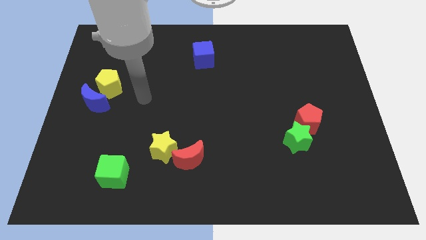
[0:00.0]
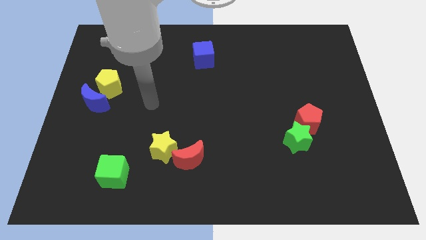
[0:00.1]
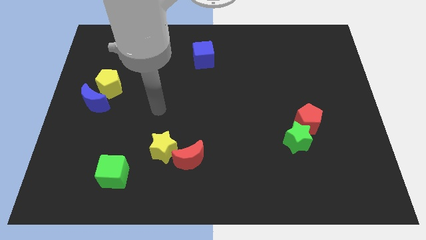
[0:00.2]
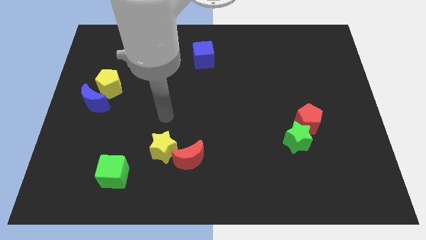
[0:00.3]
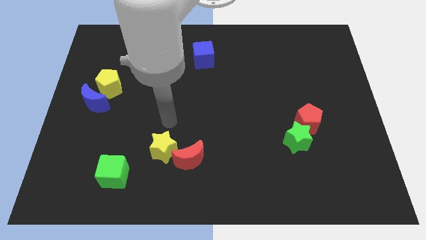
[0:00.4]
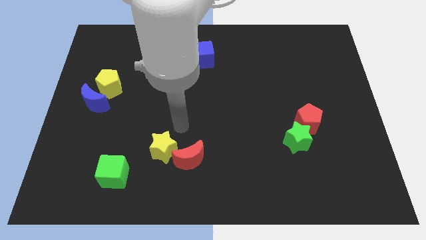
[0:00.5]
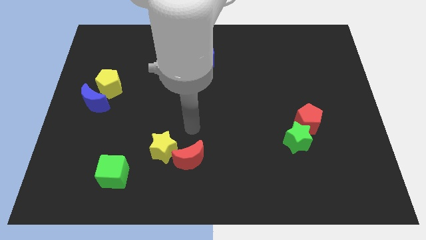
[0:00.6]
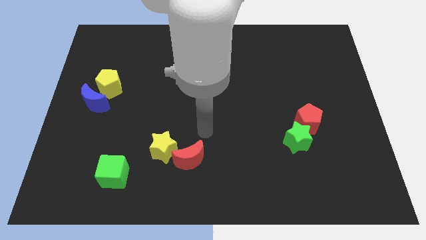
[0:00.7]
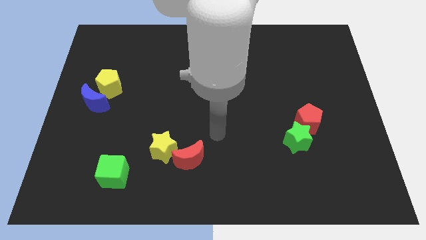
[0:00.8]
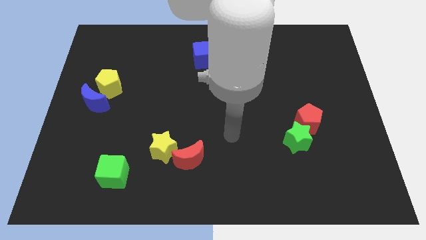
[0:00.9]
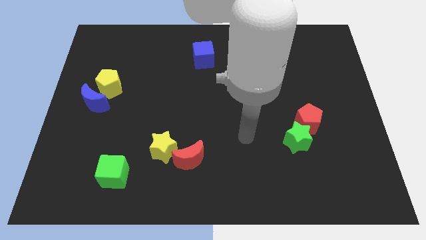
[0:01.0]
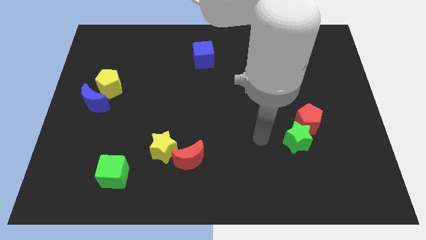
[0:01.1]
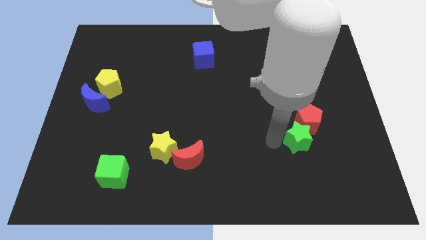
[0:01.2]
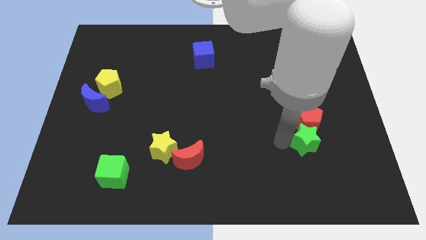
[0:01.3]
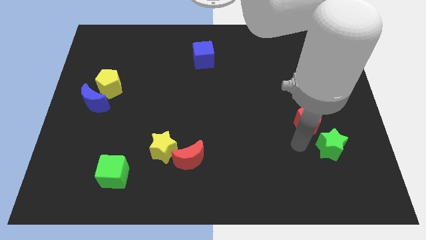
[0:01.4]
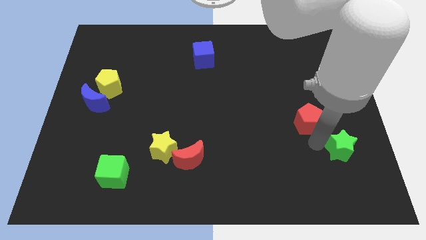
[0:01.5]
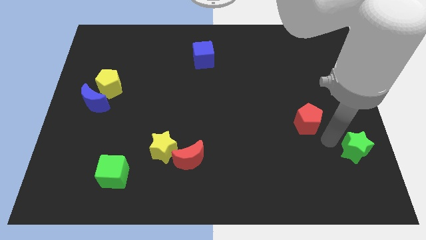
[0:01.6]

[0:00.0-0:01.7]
separate the red pentagon from the green star

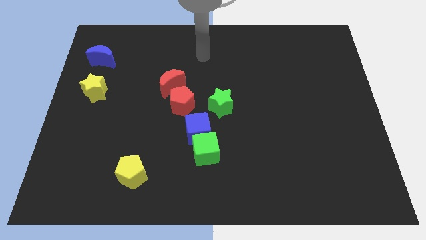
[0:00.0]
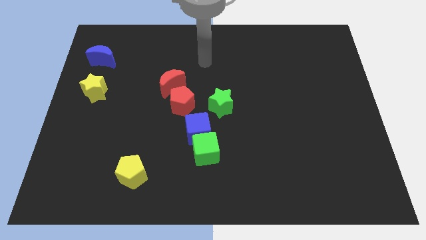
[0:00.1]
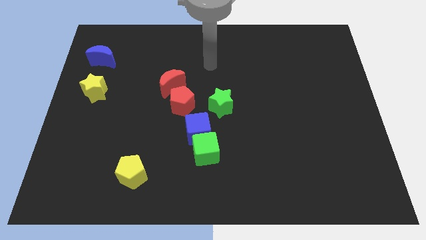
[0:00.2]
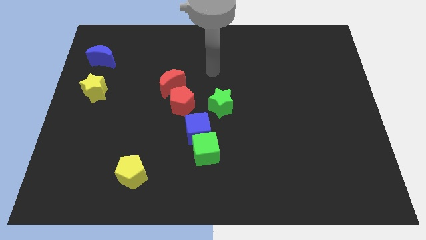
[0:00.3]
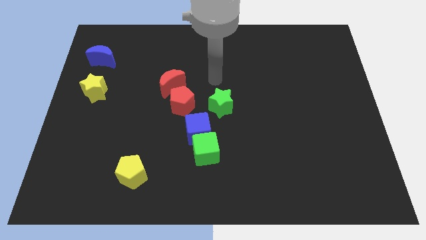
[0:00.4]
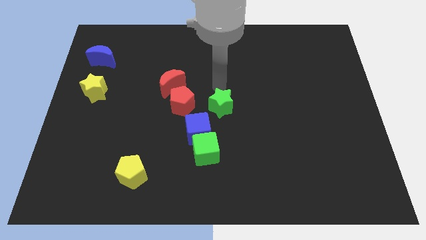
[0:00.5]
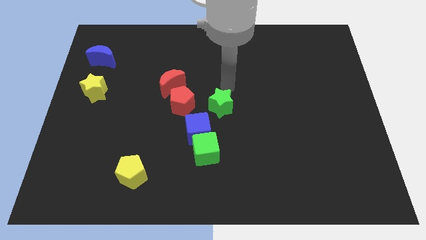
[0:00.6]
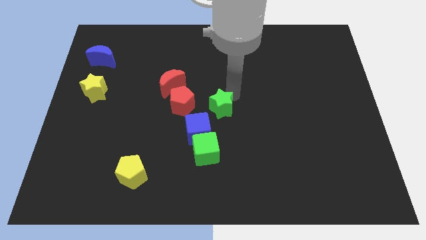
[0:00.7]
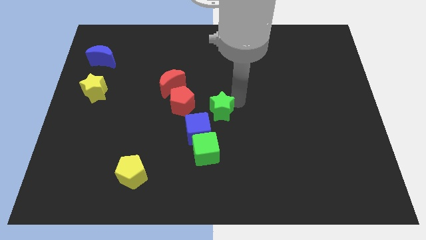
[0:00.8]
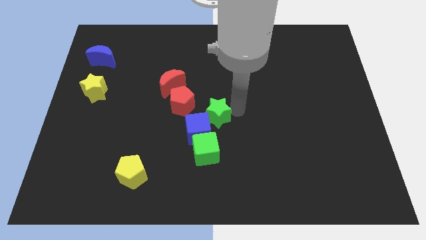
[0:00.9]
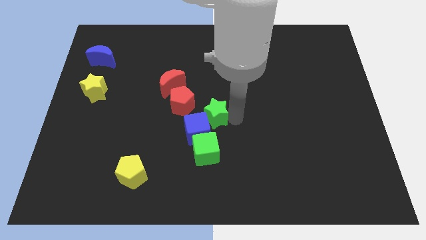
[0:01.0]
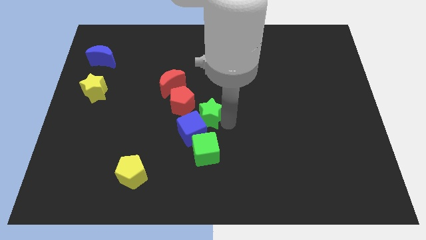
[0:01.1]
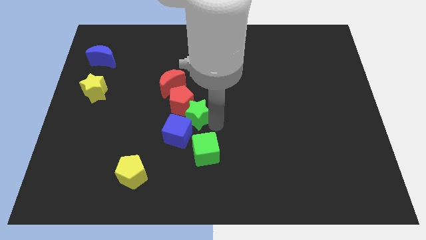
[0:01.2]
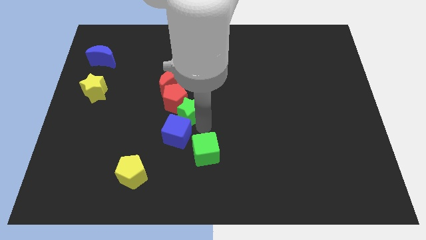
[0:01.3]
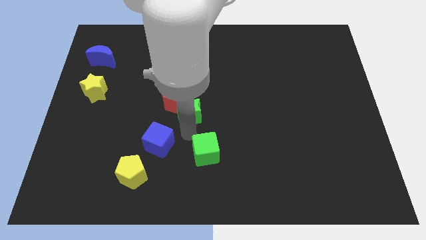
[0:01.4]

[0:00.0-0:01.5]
separate the green cube from the blue cube

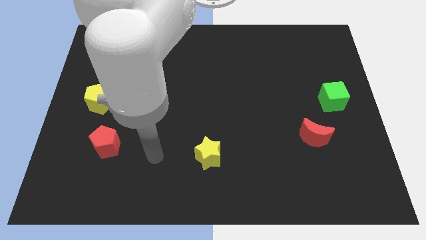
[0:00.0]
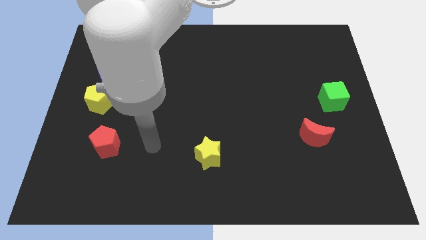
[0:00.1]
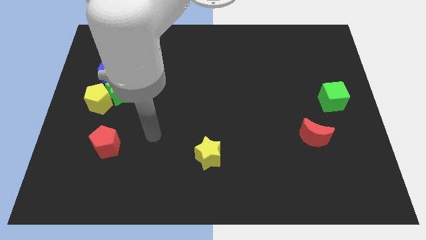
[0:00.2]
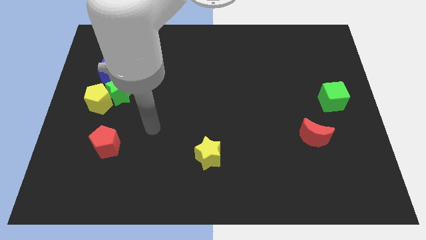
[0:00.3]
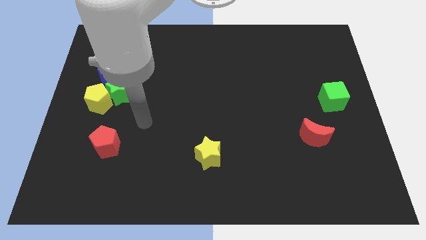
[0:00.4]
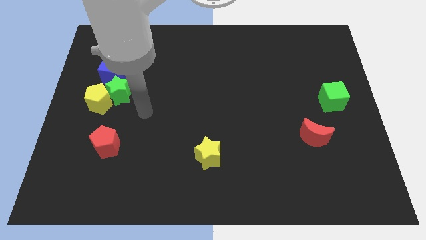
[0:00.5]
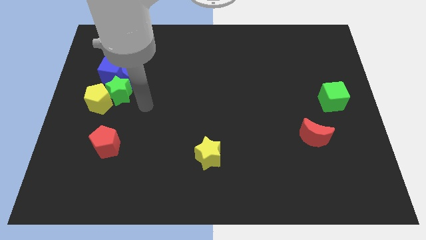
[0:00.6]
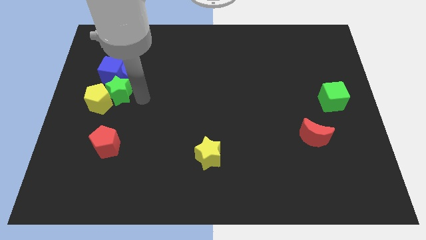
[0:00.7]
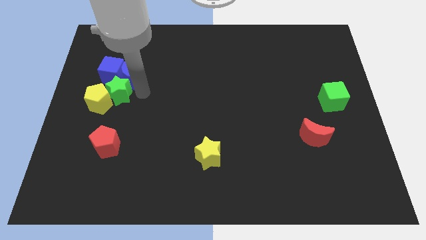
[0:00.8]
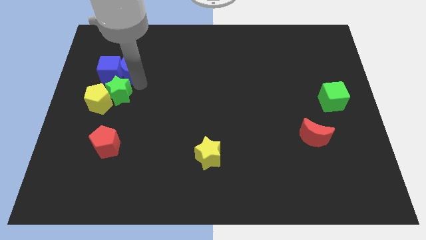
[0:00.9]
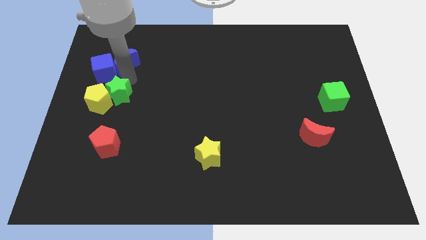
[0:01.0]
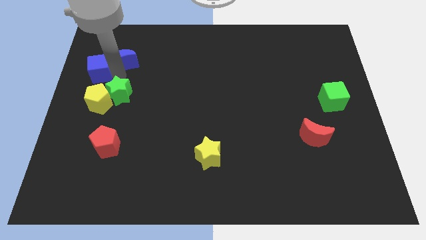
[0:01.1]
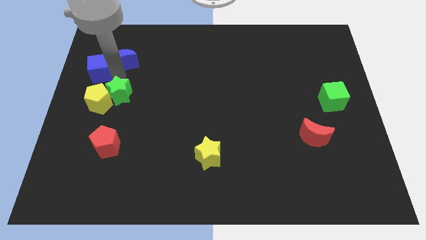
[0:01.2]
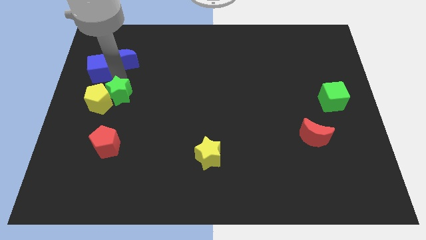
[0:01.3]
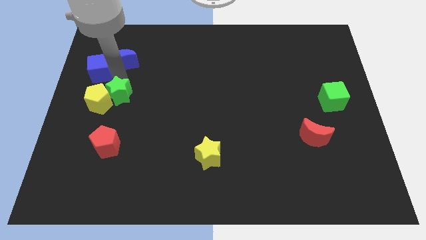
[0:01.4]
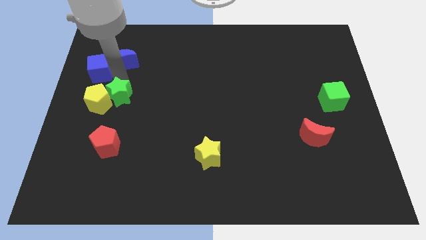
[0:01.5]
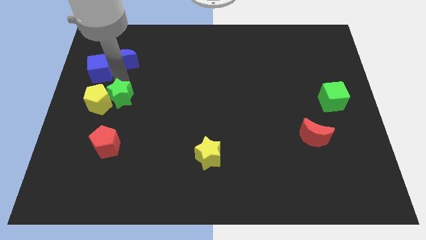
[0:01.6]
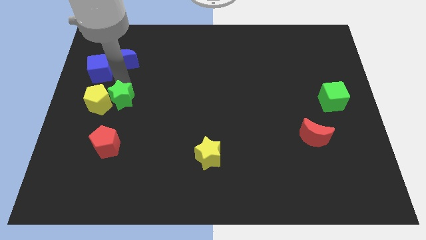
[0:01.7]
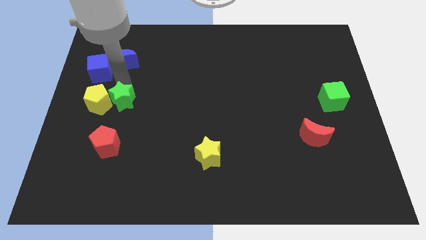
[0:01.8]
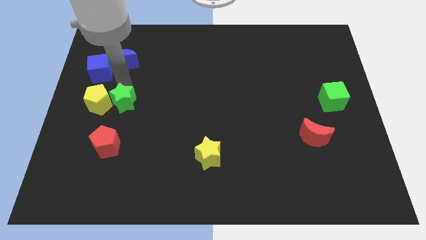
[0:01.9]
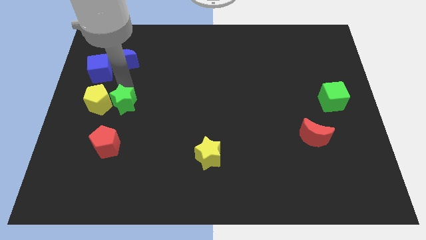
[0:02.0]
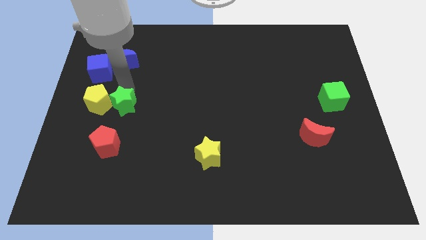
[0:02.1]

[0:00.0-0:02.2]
separate the green star from the yellow pentagon, blue moon, and blue cube

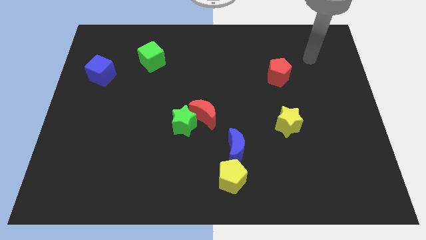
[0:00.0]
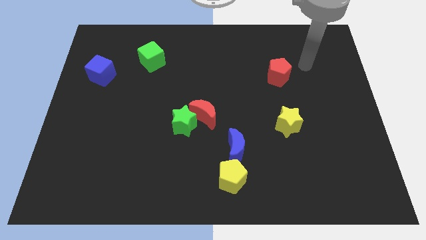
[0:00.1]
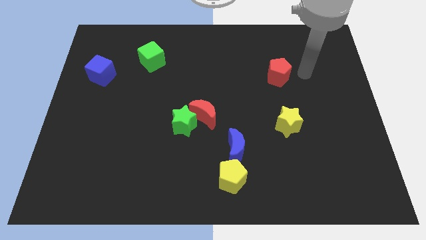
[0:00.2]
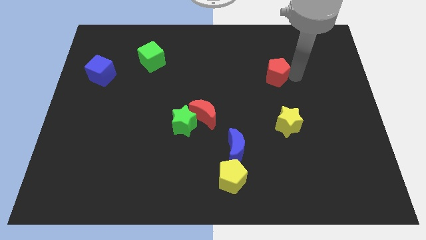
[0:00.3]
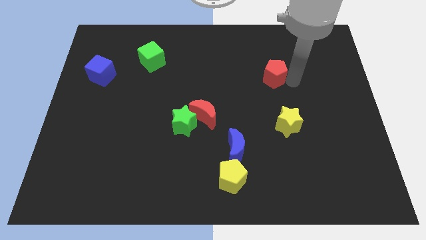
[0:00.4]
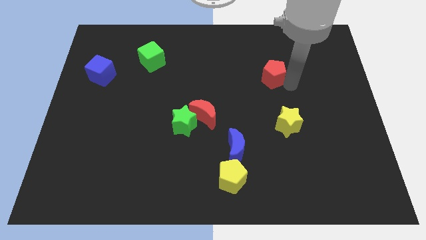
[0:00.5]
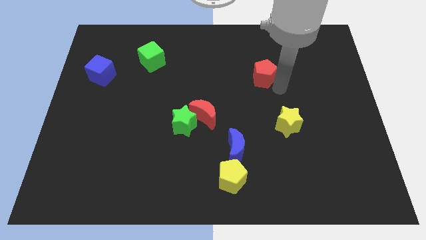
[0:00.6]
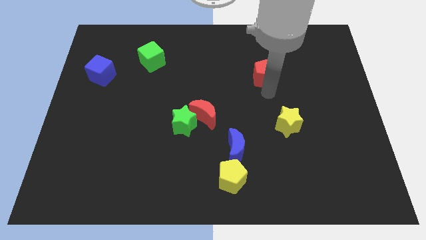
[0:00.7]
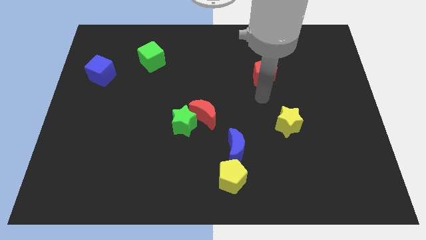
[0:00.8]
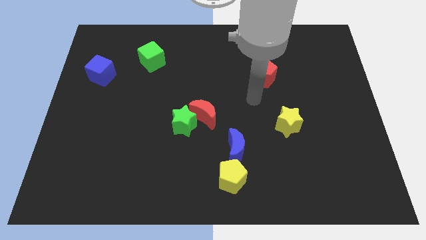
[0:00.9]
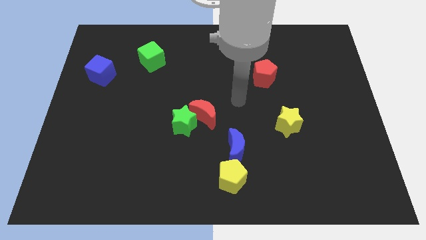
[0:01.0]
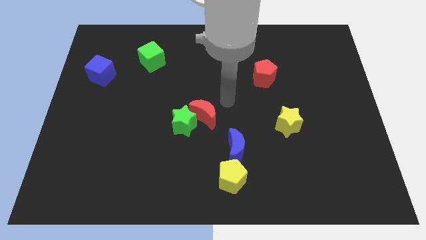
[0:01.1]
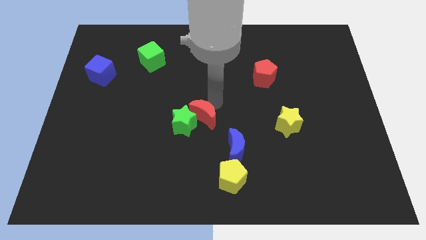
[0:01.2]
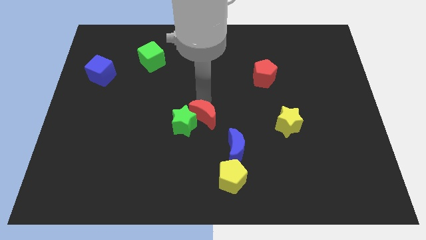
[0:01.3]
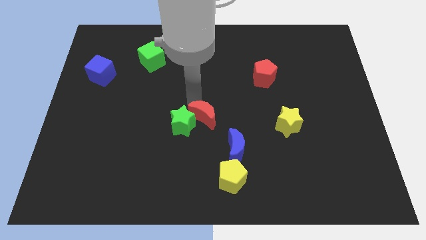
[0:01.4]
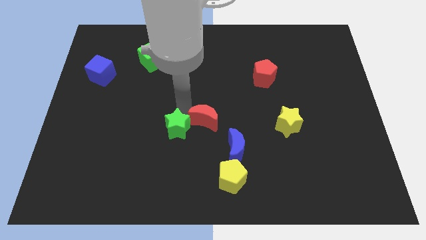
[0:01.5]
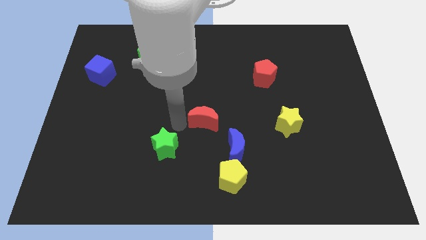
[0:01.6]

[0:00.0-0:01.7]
move the red moon away from the green star

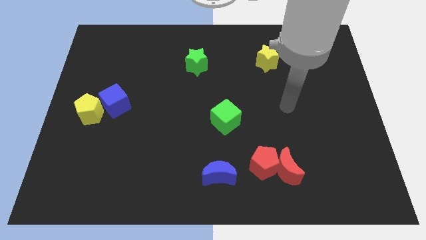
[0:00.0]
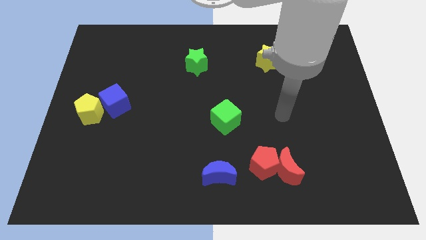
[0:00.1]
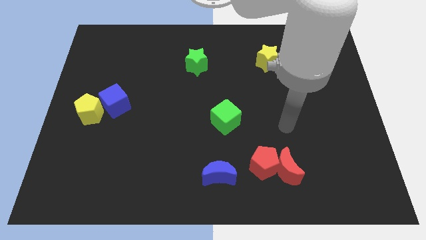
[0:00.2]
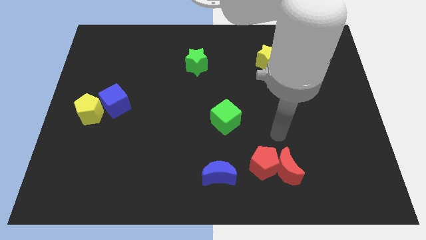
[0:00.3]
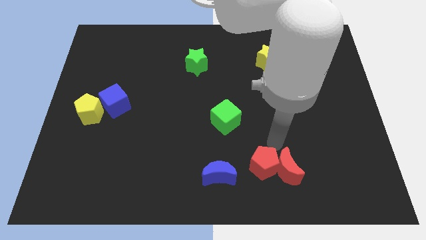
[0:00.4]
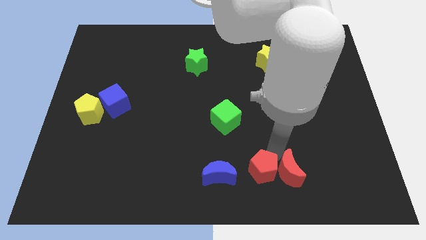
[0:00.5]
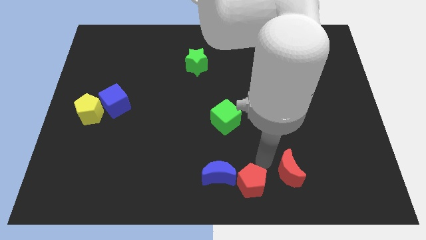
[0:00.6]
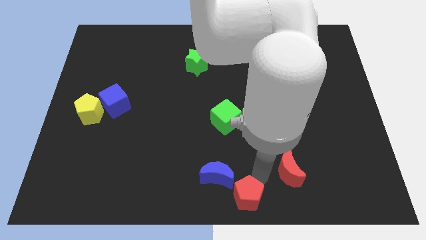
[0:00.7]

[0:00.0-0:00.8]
pull the red moon apart from the red pentagon

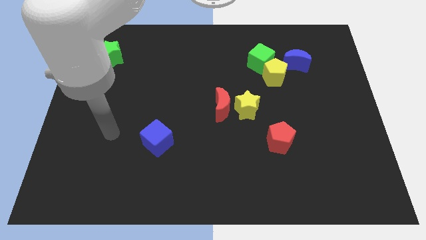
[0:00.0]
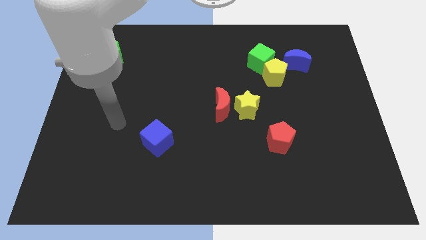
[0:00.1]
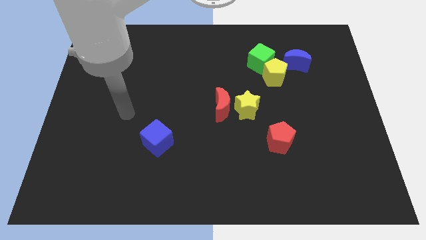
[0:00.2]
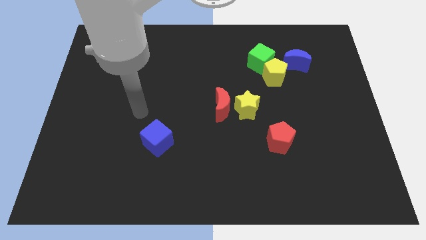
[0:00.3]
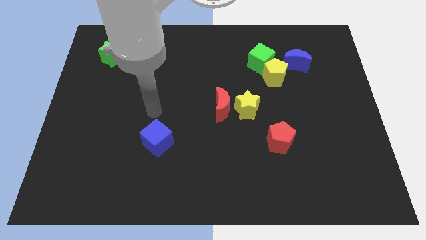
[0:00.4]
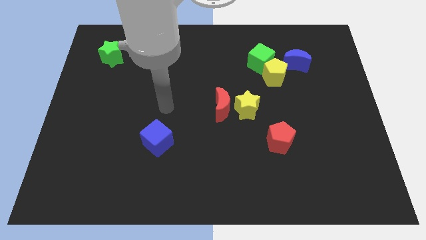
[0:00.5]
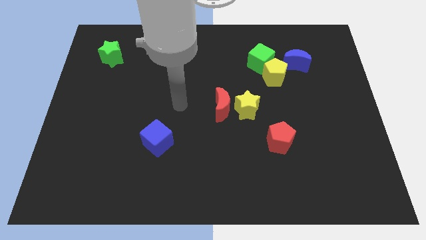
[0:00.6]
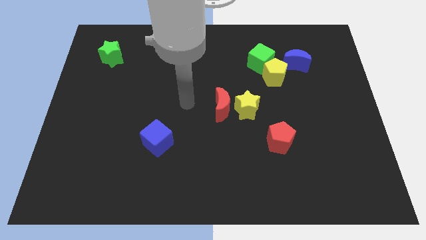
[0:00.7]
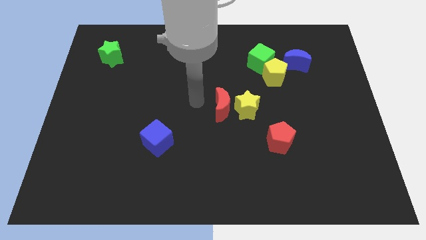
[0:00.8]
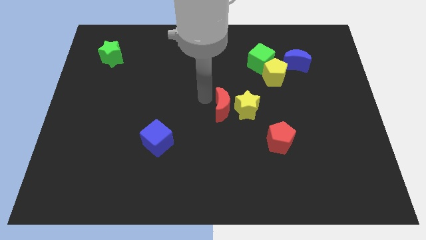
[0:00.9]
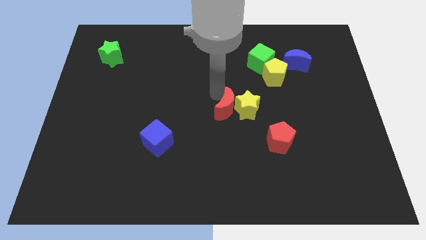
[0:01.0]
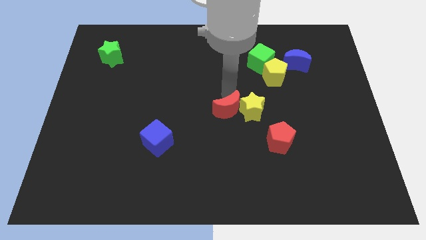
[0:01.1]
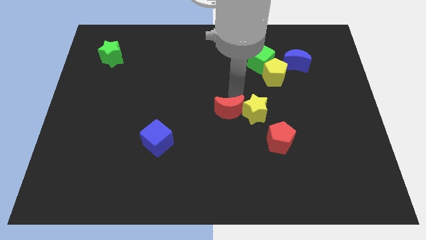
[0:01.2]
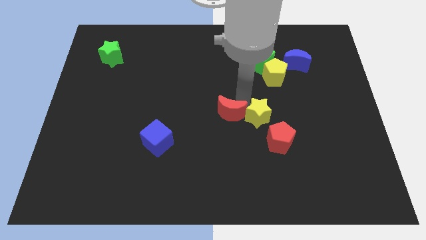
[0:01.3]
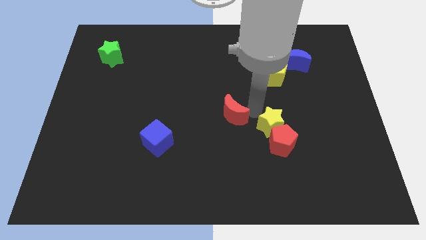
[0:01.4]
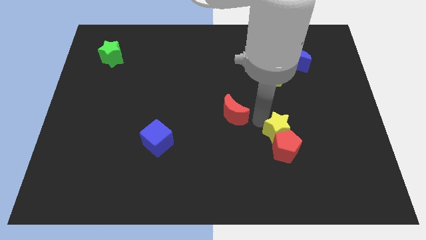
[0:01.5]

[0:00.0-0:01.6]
separate the red moon from the yellow star
